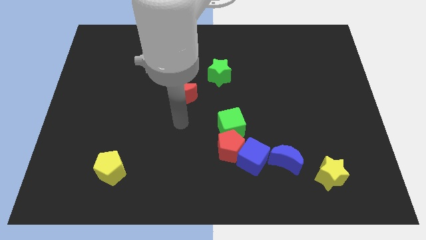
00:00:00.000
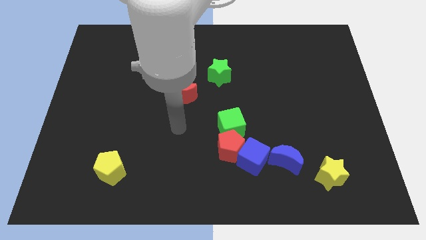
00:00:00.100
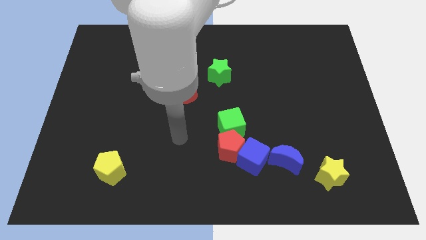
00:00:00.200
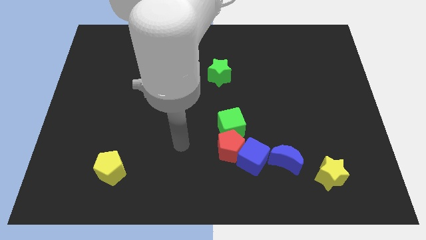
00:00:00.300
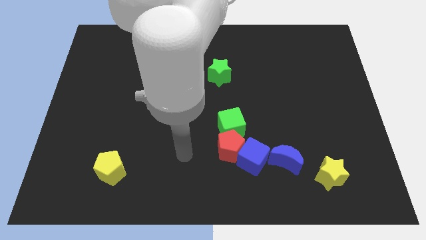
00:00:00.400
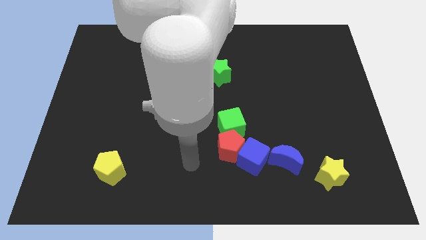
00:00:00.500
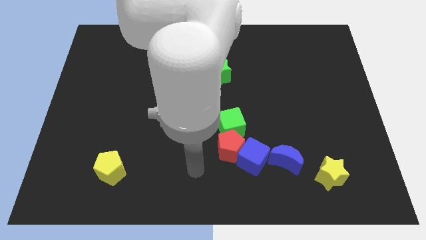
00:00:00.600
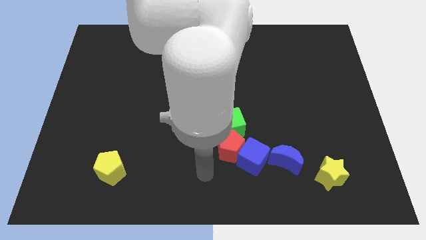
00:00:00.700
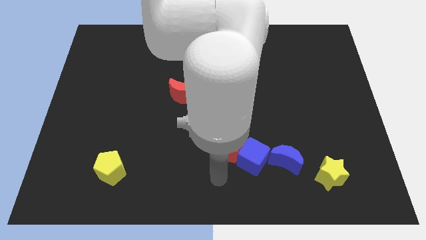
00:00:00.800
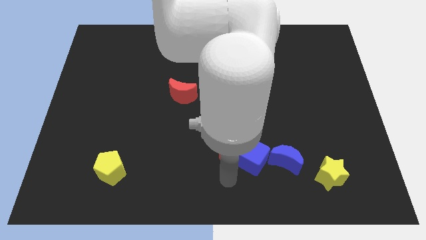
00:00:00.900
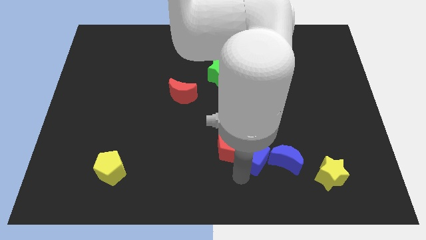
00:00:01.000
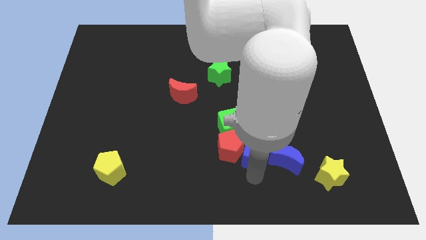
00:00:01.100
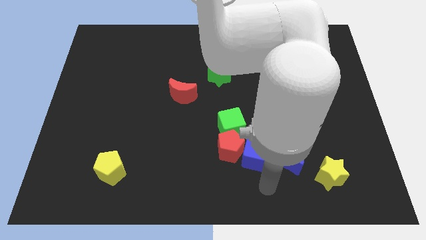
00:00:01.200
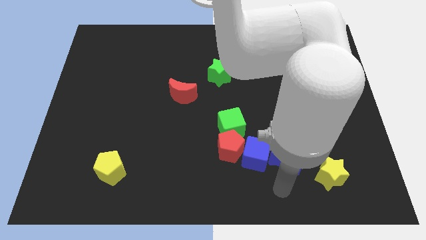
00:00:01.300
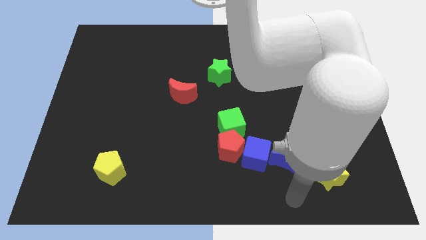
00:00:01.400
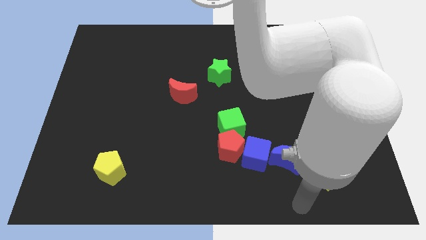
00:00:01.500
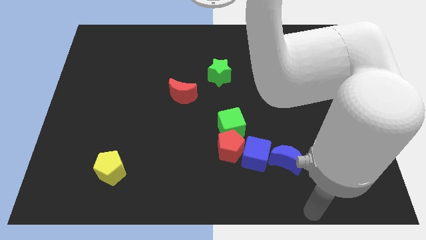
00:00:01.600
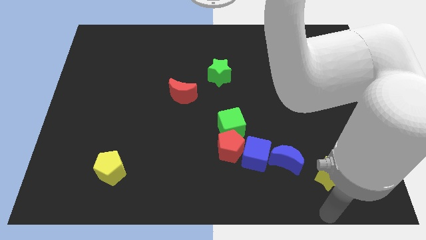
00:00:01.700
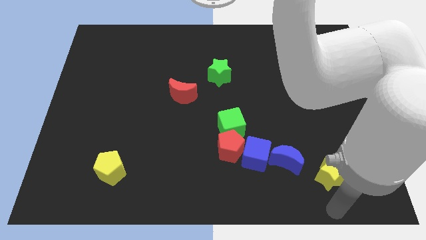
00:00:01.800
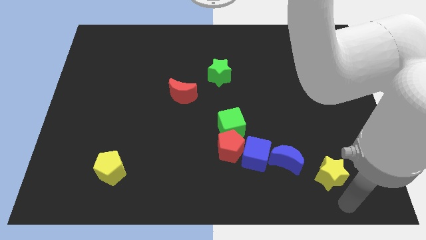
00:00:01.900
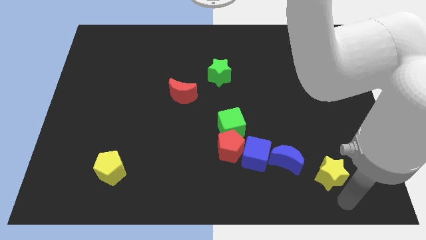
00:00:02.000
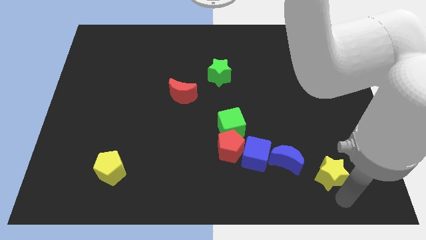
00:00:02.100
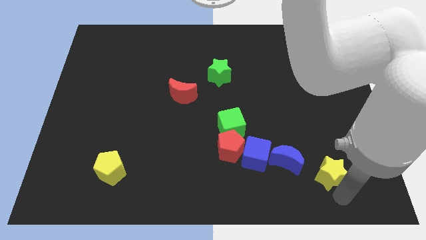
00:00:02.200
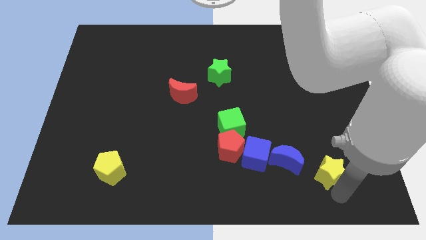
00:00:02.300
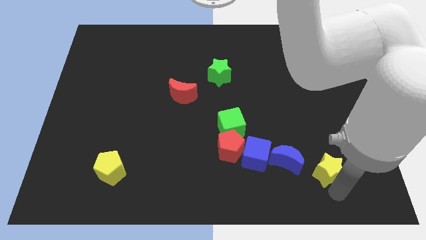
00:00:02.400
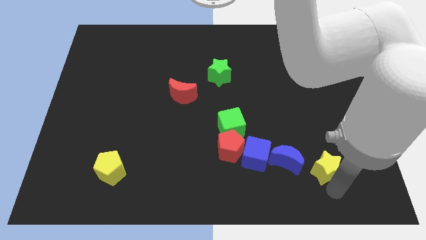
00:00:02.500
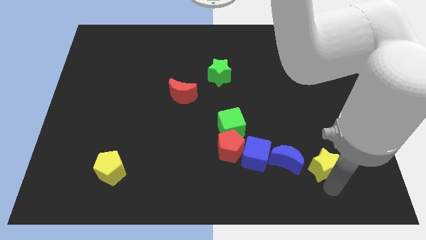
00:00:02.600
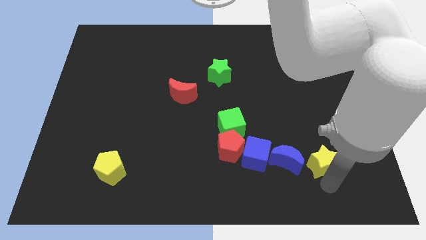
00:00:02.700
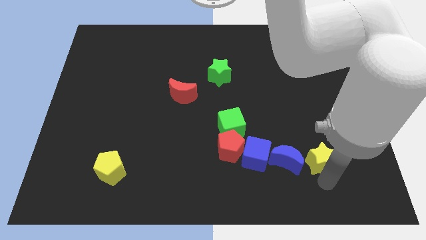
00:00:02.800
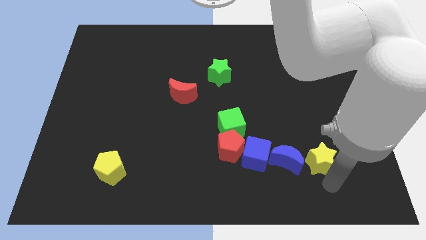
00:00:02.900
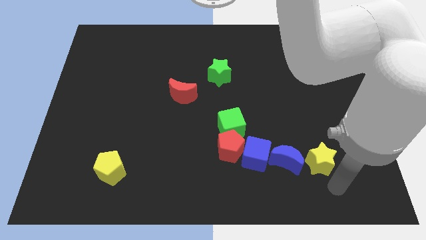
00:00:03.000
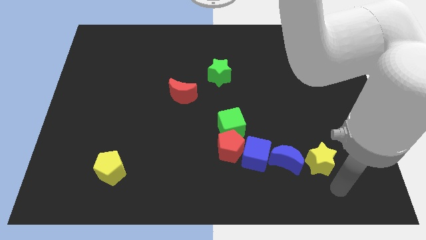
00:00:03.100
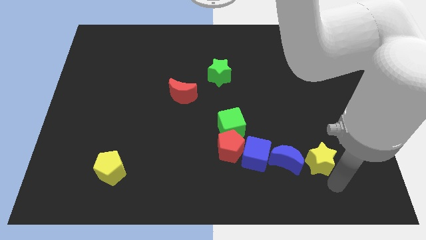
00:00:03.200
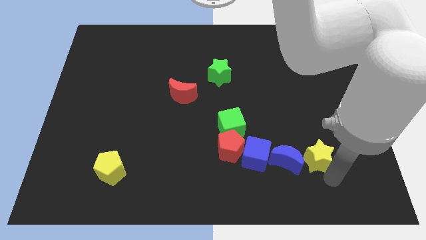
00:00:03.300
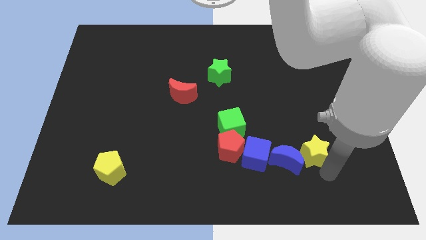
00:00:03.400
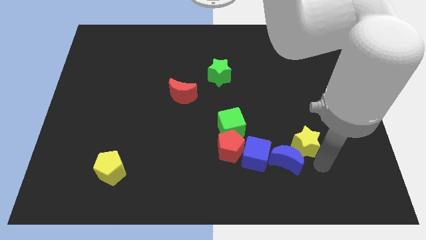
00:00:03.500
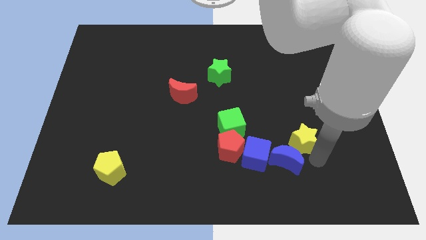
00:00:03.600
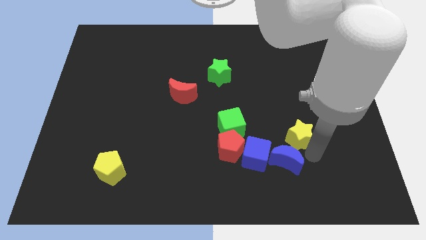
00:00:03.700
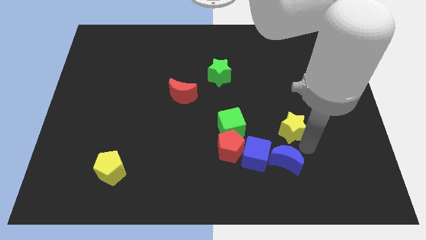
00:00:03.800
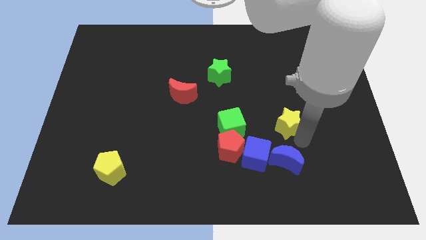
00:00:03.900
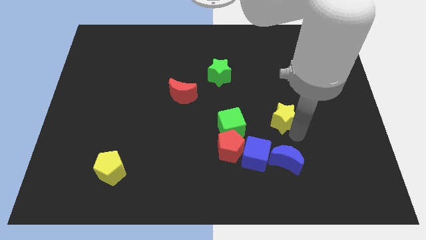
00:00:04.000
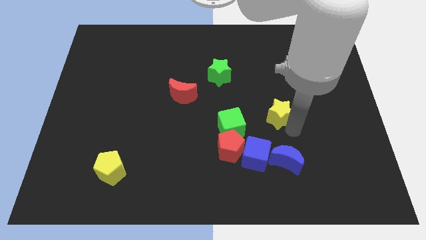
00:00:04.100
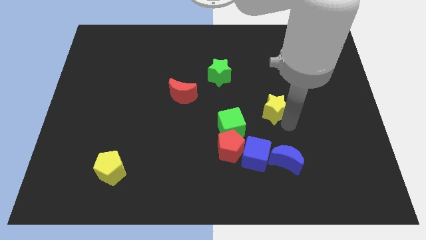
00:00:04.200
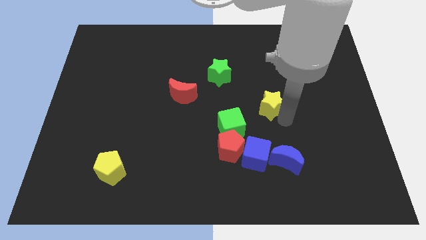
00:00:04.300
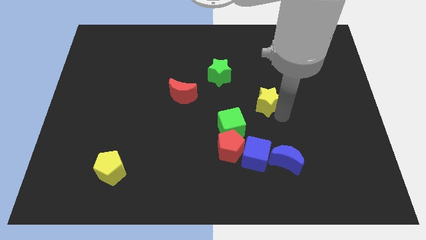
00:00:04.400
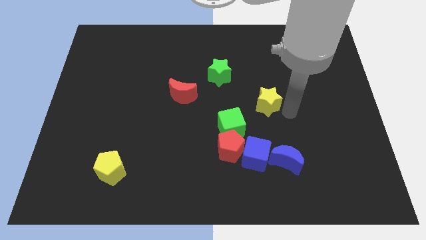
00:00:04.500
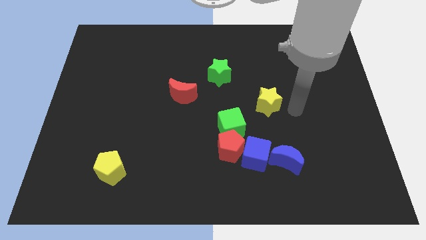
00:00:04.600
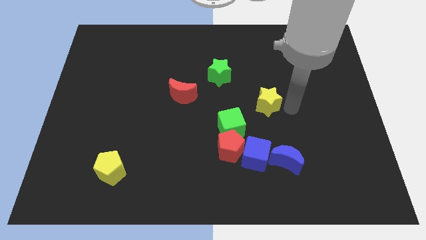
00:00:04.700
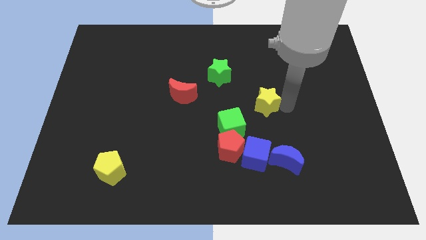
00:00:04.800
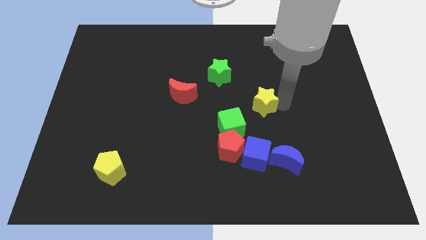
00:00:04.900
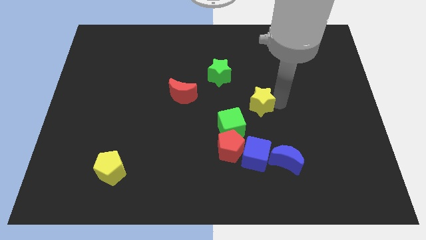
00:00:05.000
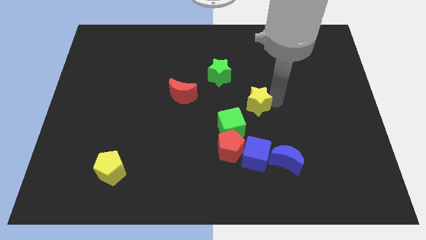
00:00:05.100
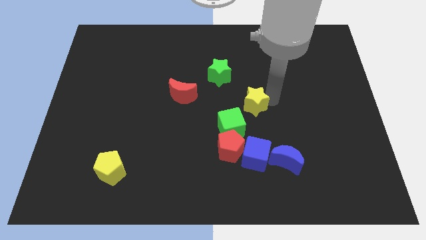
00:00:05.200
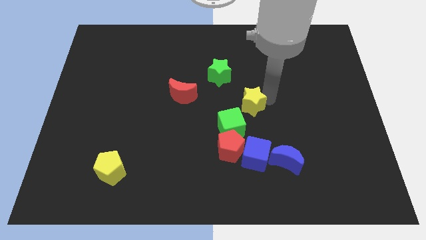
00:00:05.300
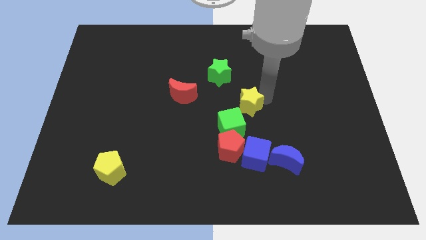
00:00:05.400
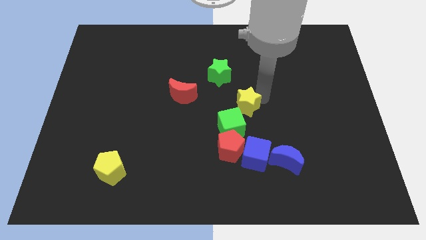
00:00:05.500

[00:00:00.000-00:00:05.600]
push the yellow star right of the red moon

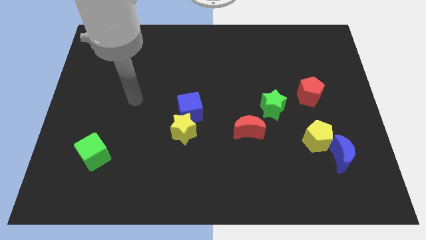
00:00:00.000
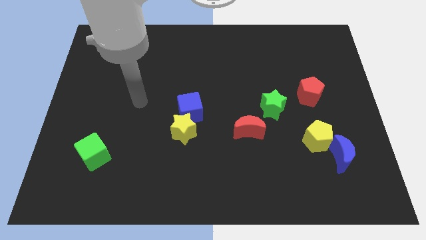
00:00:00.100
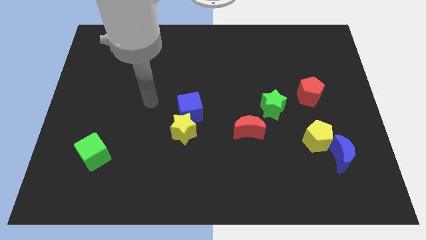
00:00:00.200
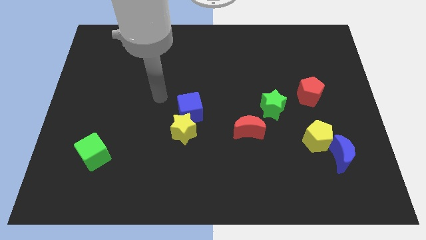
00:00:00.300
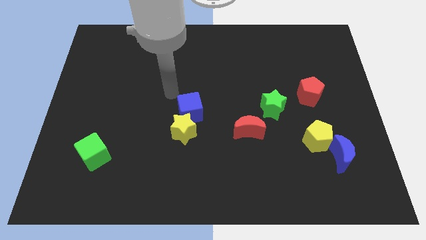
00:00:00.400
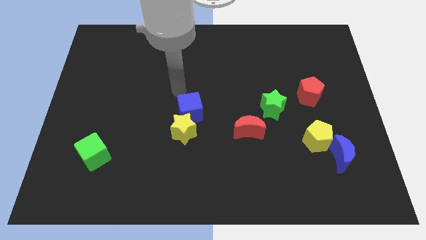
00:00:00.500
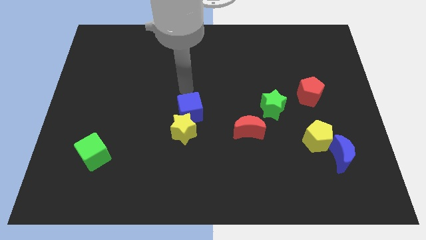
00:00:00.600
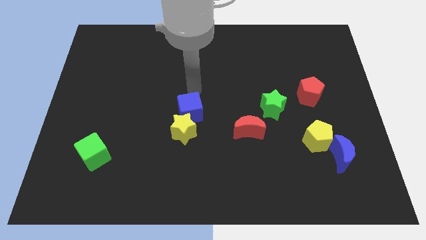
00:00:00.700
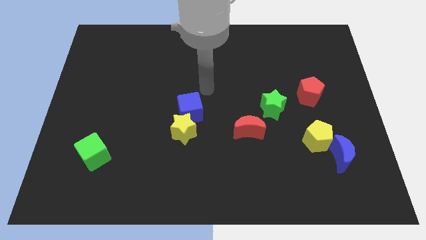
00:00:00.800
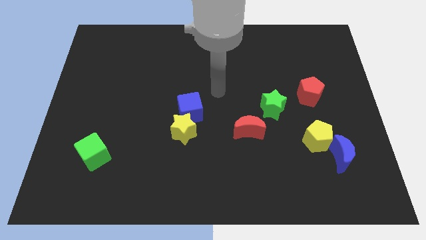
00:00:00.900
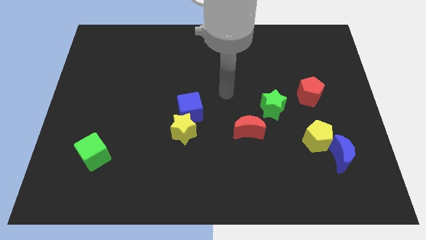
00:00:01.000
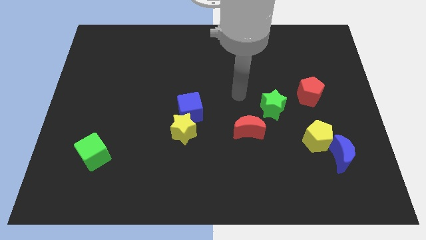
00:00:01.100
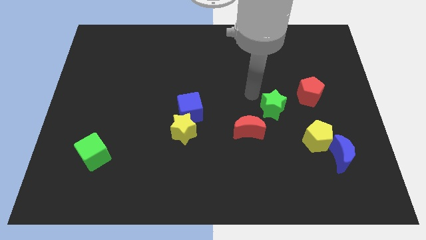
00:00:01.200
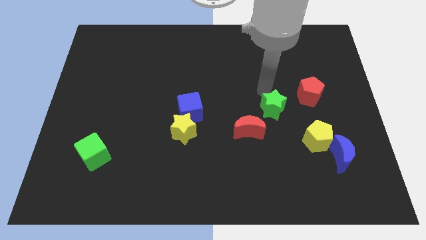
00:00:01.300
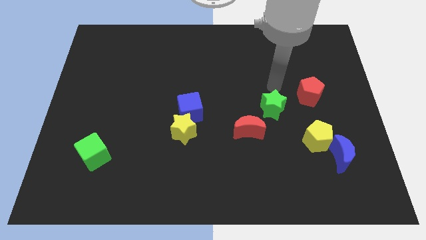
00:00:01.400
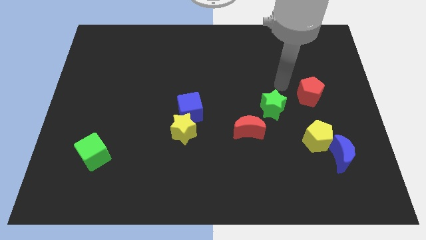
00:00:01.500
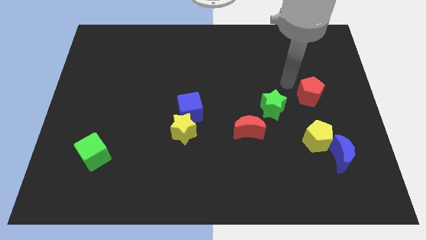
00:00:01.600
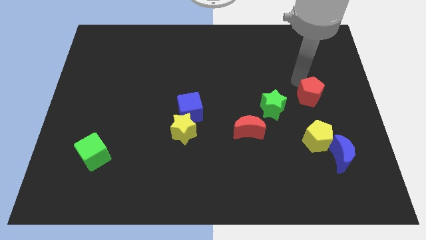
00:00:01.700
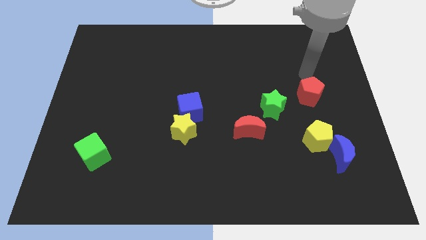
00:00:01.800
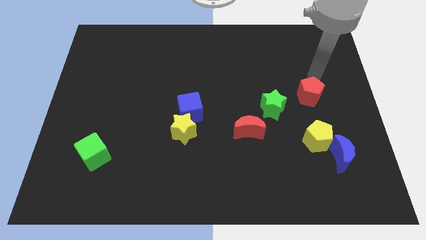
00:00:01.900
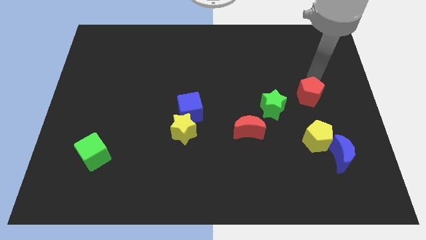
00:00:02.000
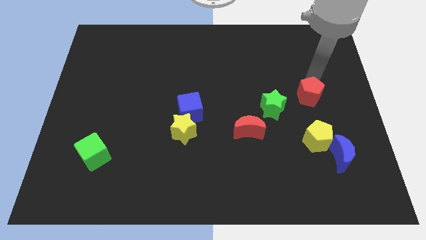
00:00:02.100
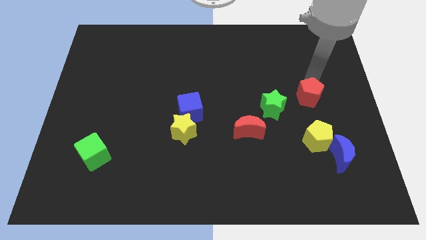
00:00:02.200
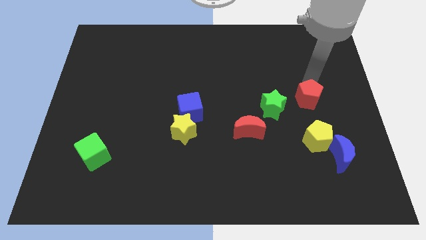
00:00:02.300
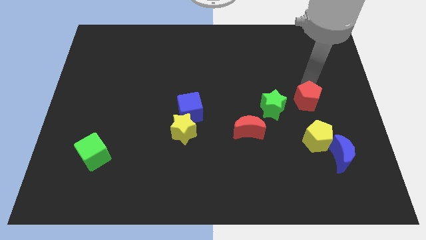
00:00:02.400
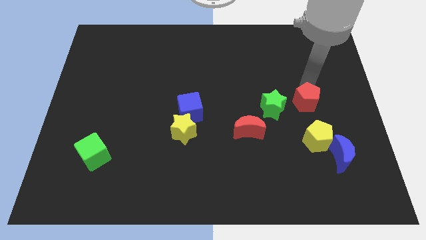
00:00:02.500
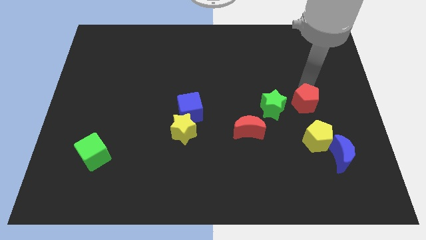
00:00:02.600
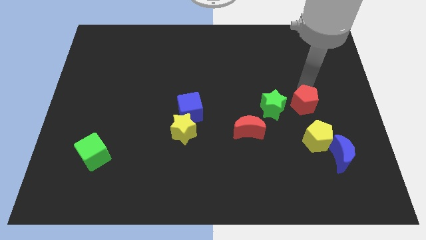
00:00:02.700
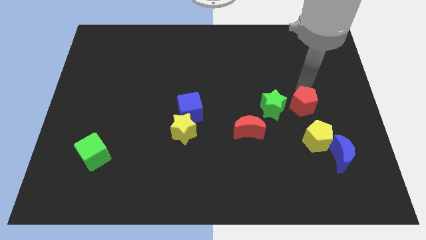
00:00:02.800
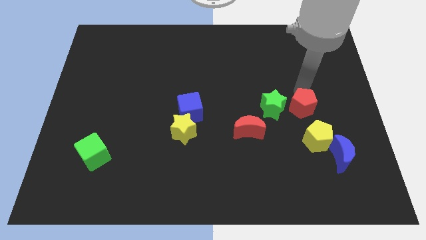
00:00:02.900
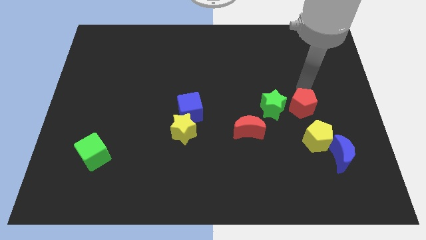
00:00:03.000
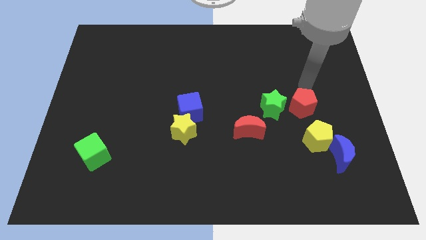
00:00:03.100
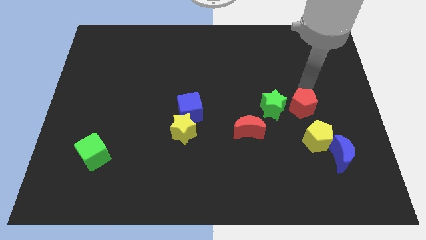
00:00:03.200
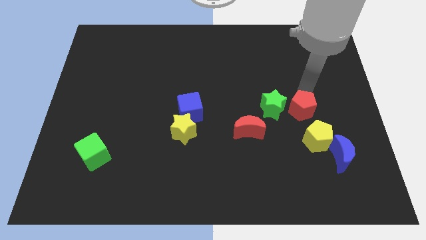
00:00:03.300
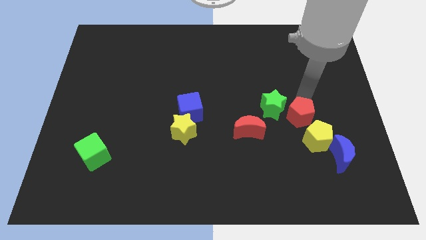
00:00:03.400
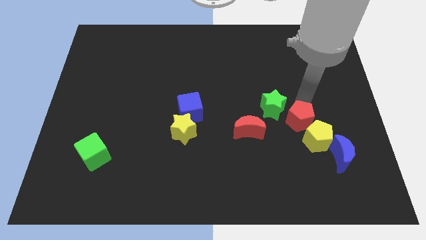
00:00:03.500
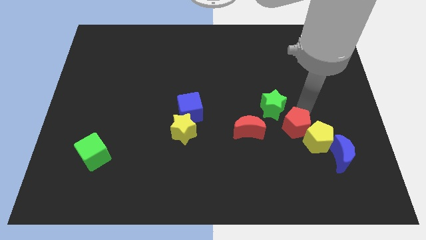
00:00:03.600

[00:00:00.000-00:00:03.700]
move the red pentagon to the left side of the yellow pentagon
